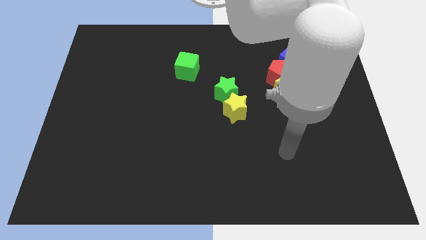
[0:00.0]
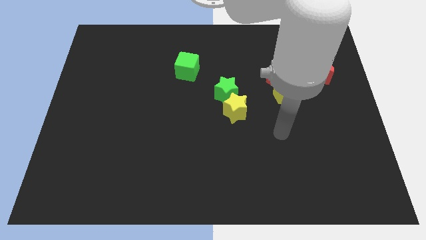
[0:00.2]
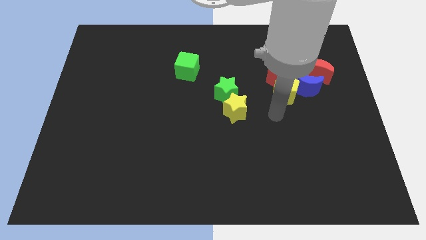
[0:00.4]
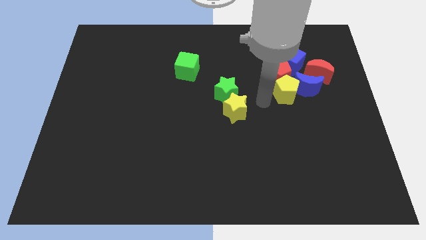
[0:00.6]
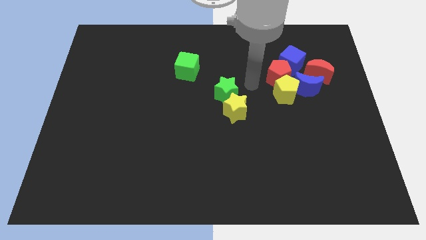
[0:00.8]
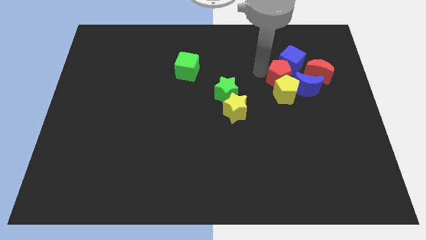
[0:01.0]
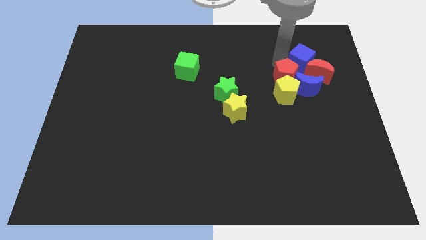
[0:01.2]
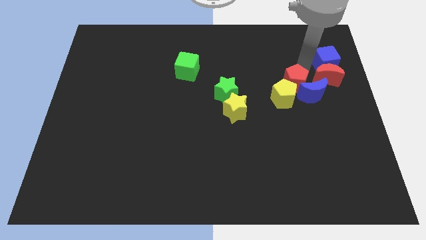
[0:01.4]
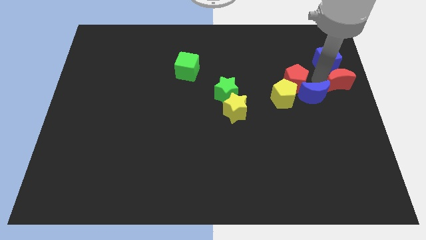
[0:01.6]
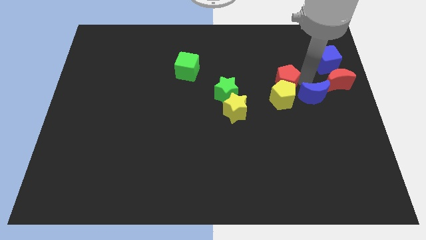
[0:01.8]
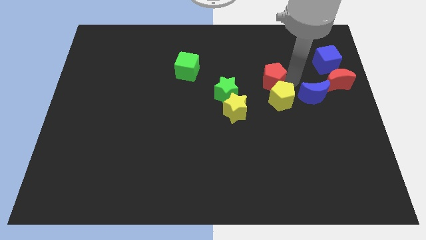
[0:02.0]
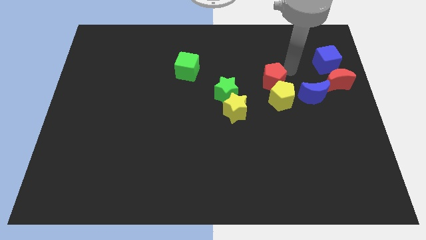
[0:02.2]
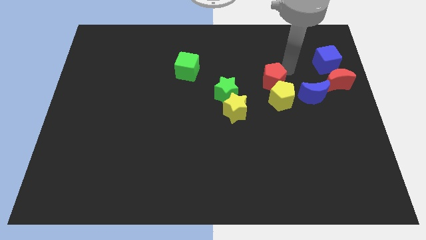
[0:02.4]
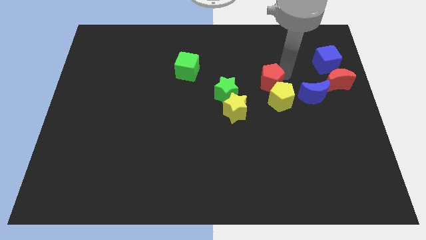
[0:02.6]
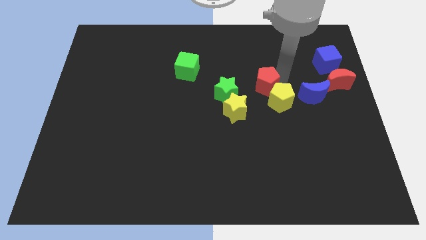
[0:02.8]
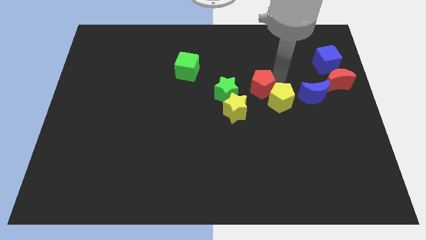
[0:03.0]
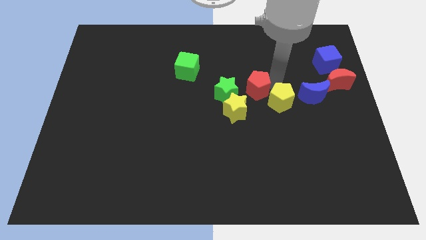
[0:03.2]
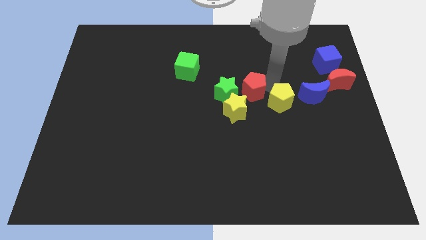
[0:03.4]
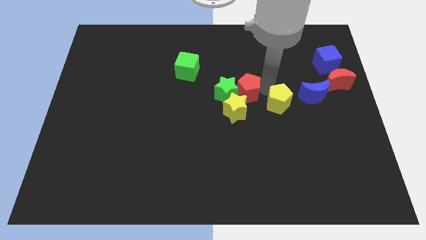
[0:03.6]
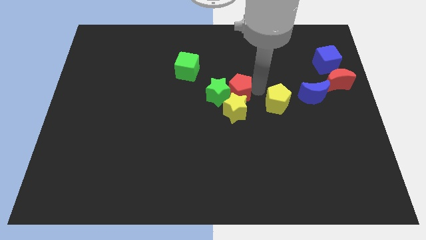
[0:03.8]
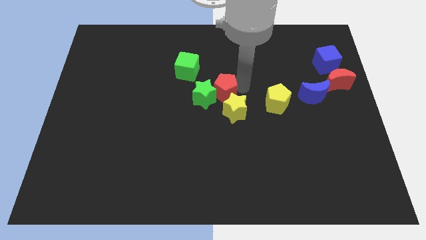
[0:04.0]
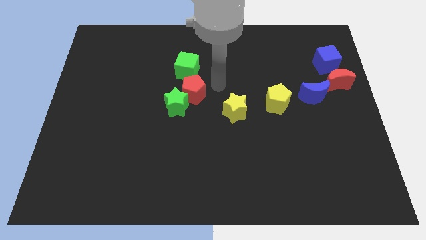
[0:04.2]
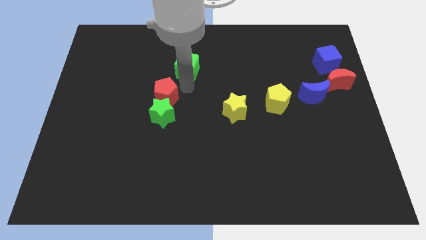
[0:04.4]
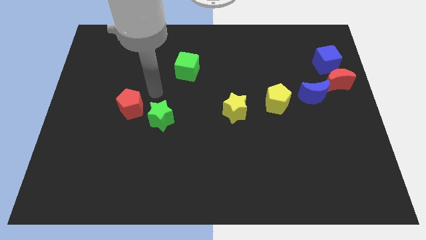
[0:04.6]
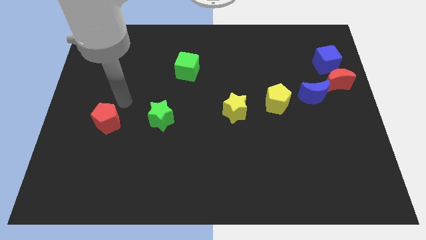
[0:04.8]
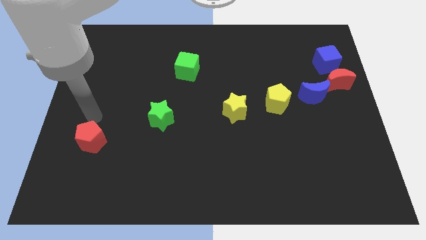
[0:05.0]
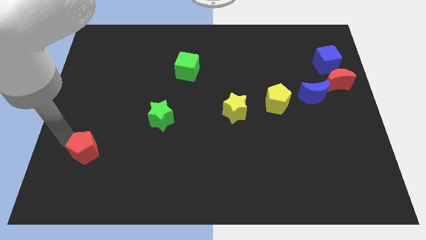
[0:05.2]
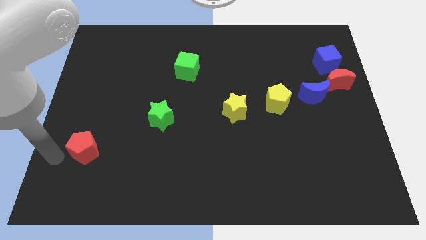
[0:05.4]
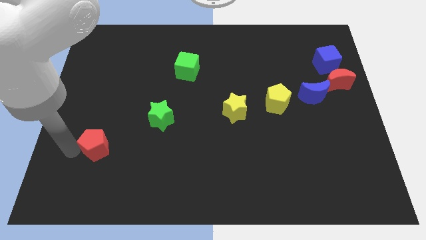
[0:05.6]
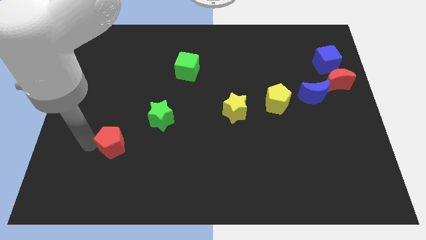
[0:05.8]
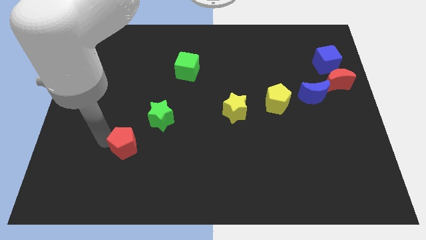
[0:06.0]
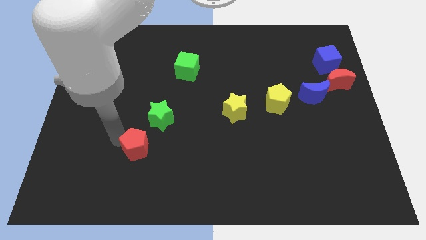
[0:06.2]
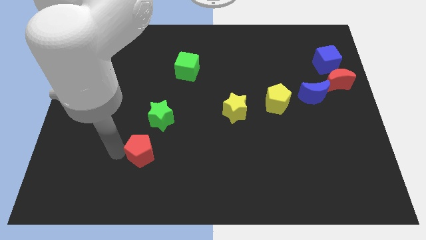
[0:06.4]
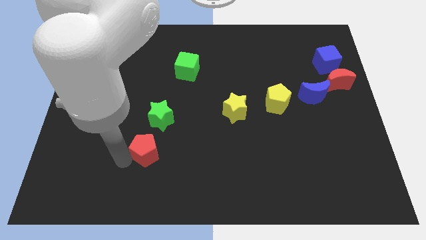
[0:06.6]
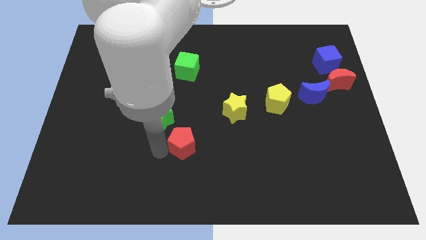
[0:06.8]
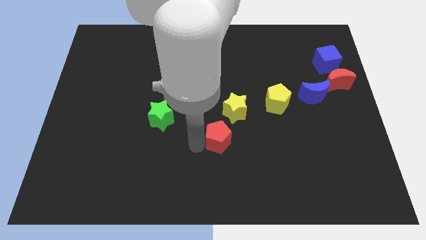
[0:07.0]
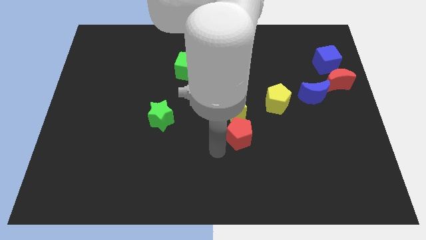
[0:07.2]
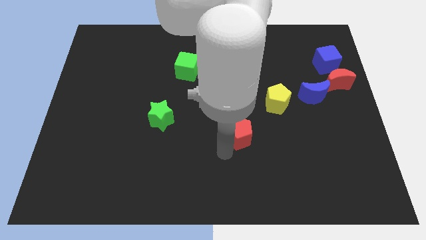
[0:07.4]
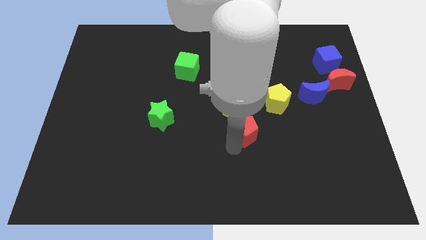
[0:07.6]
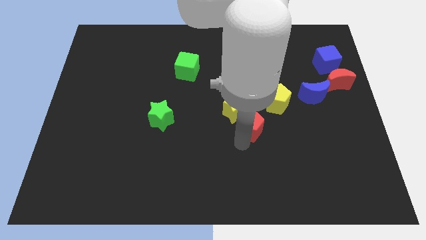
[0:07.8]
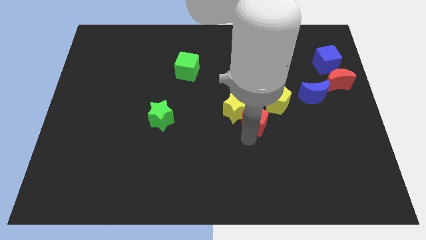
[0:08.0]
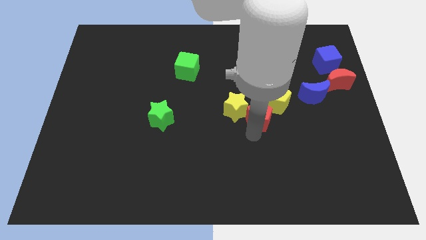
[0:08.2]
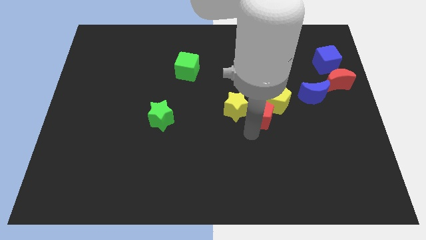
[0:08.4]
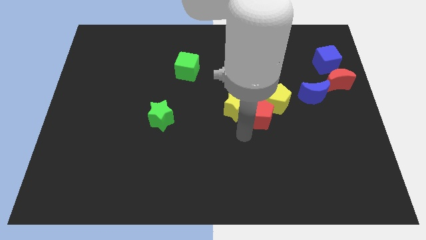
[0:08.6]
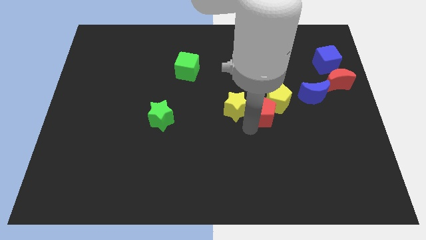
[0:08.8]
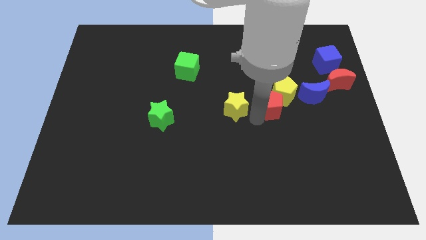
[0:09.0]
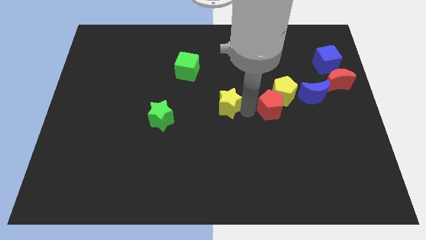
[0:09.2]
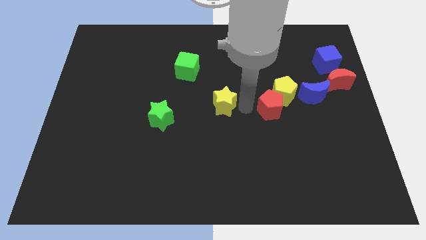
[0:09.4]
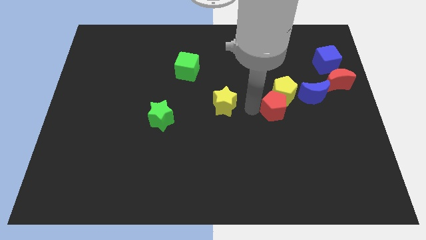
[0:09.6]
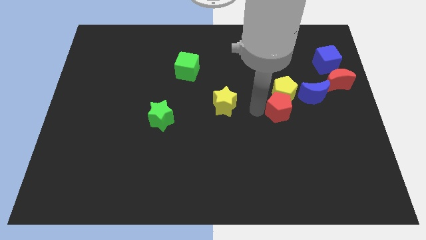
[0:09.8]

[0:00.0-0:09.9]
put the red pentagon to the bottom right of the yellow pentagon

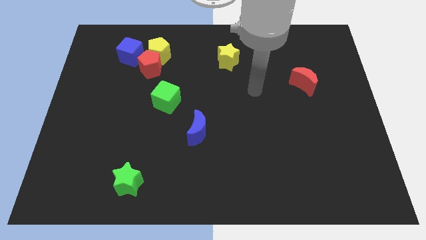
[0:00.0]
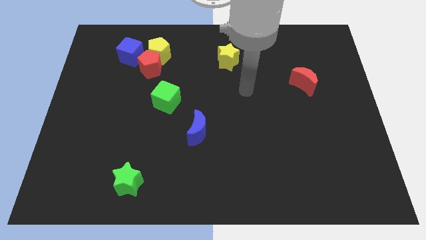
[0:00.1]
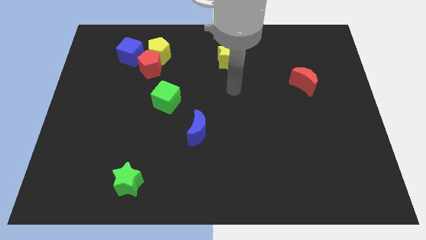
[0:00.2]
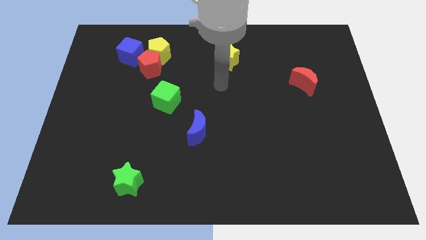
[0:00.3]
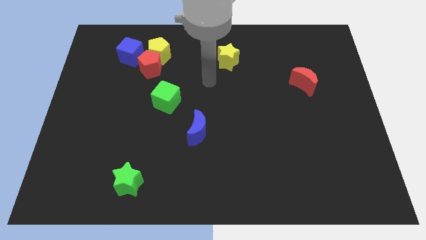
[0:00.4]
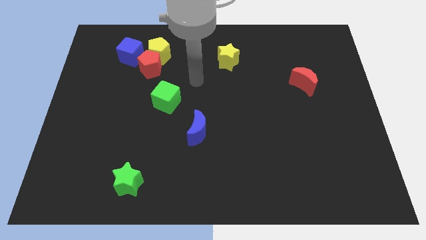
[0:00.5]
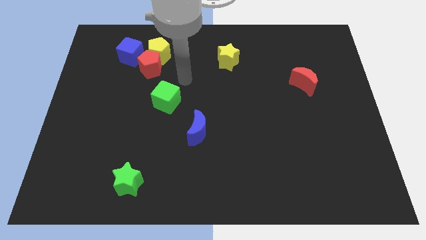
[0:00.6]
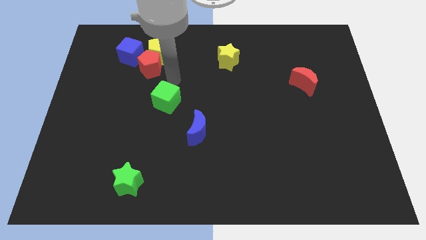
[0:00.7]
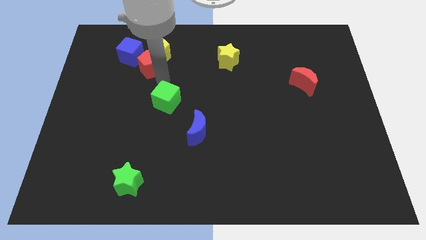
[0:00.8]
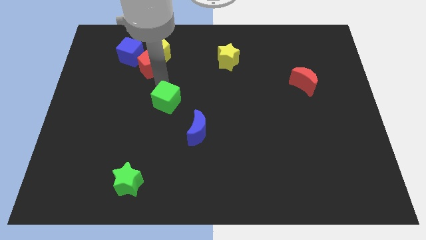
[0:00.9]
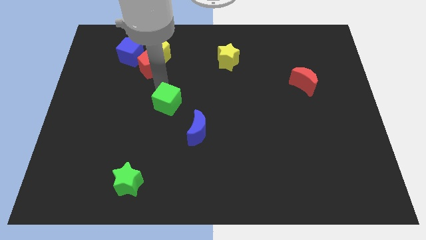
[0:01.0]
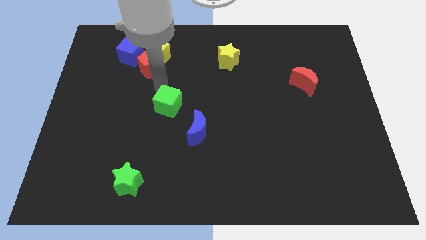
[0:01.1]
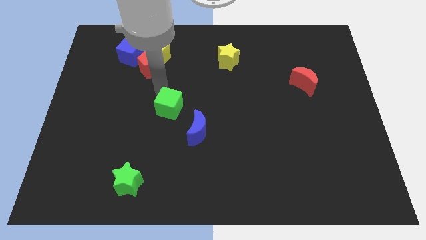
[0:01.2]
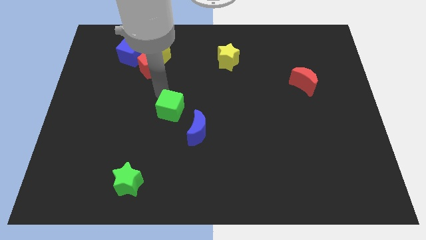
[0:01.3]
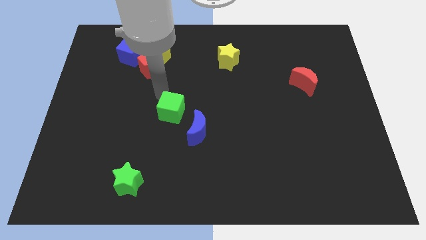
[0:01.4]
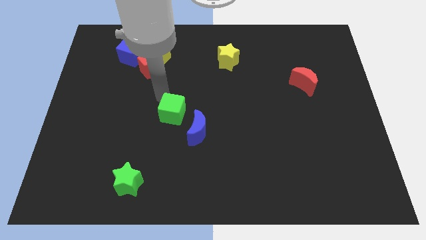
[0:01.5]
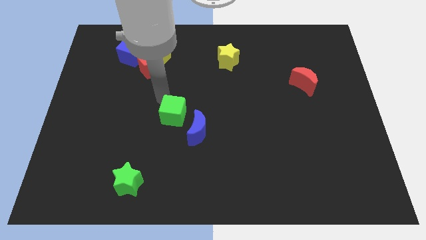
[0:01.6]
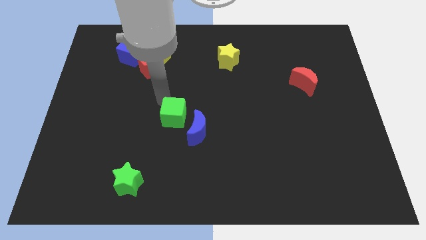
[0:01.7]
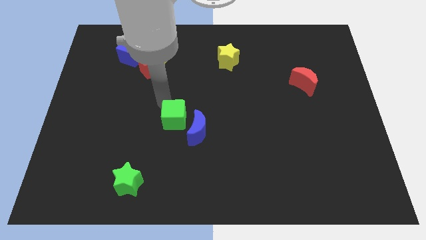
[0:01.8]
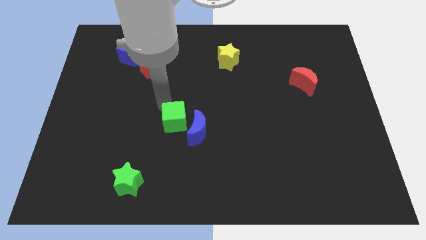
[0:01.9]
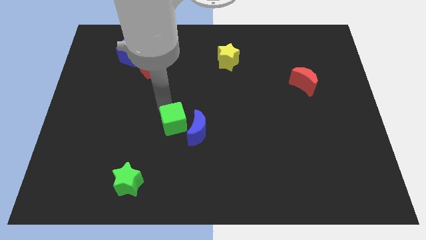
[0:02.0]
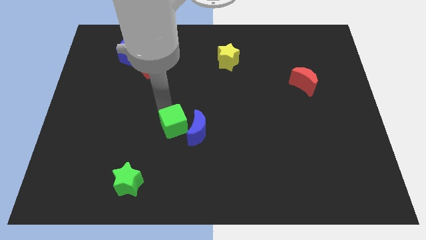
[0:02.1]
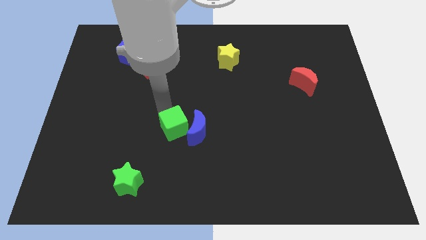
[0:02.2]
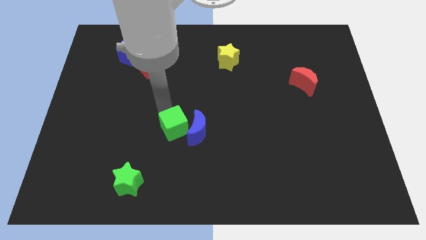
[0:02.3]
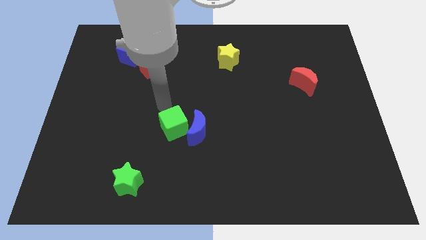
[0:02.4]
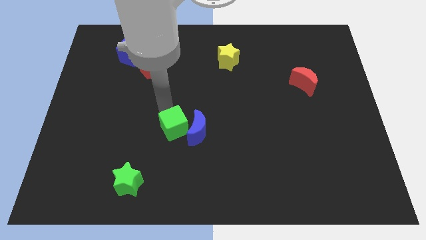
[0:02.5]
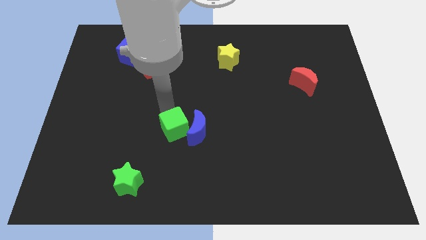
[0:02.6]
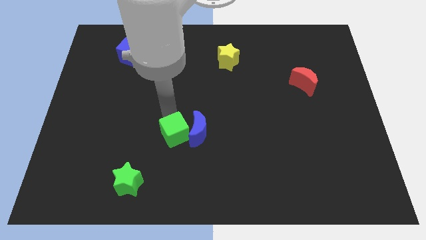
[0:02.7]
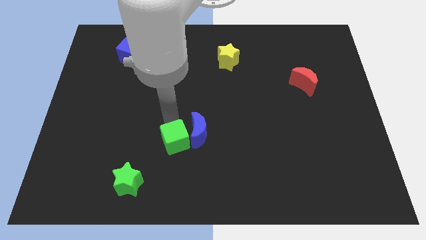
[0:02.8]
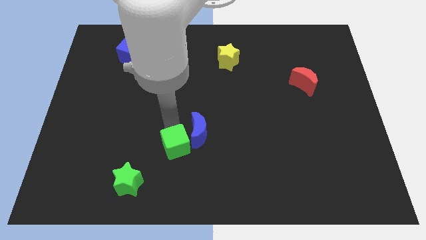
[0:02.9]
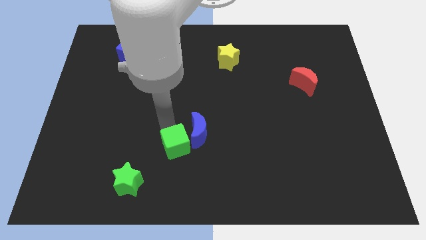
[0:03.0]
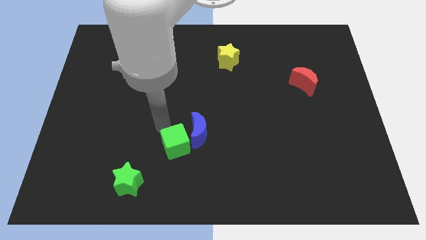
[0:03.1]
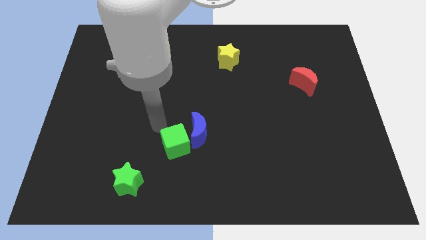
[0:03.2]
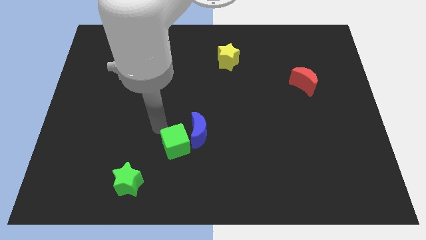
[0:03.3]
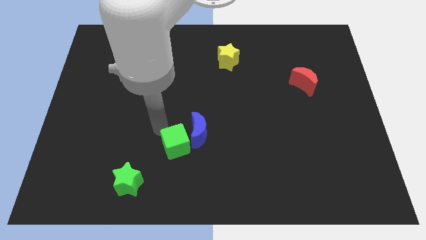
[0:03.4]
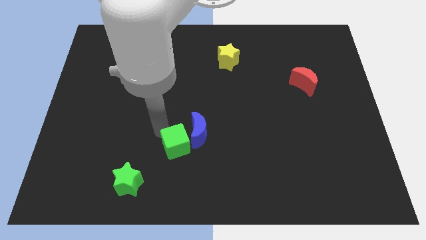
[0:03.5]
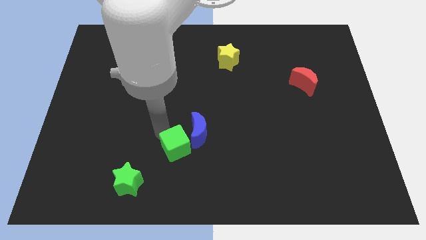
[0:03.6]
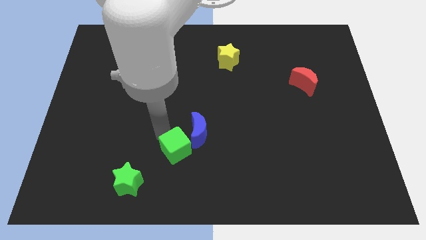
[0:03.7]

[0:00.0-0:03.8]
push the green cube to the bottom of the blue moon
